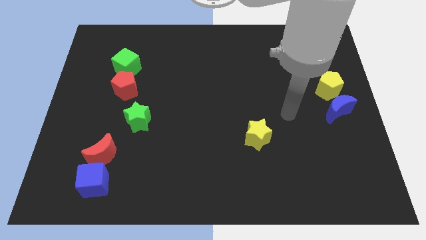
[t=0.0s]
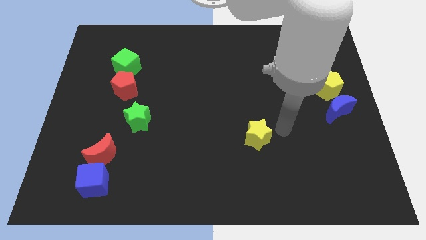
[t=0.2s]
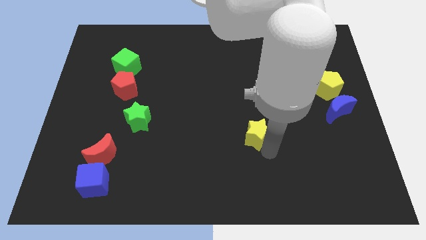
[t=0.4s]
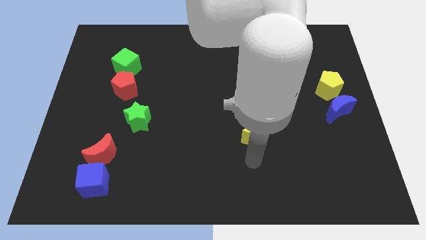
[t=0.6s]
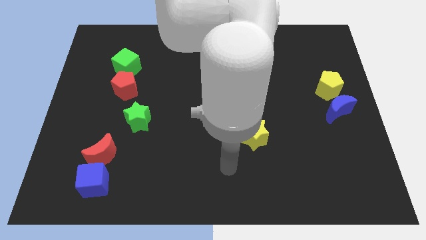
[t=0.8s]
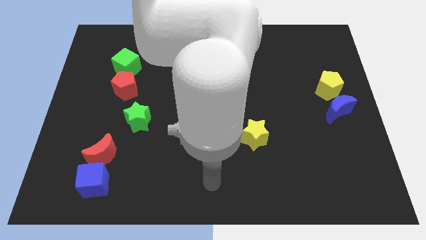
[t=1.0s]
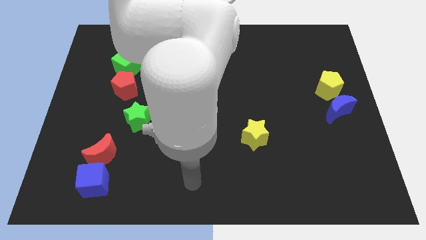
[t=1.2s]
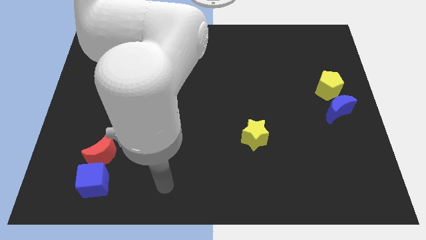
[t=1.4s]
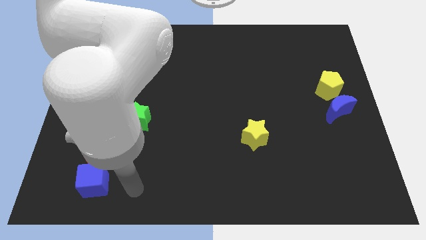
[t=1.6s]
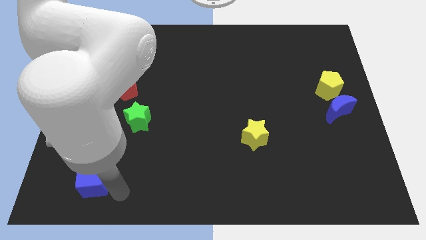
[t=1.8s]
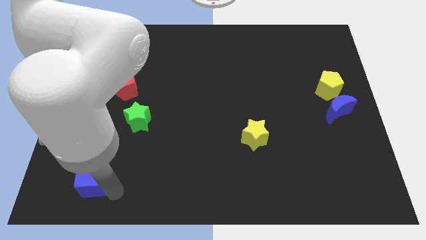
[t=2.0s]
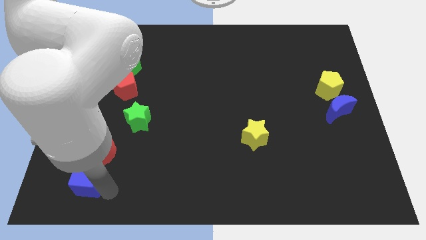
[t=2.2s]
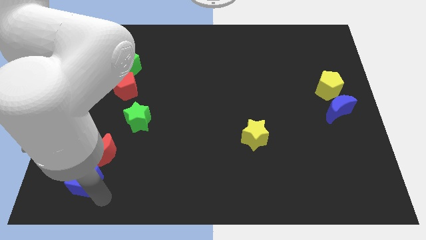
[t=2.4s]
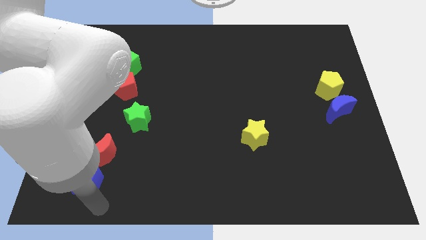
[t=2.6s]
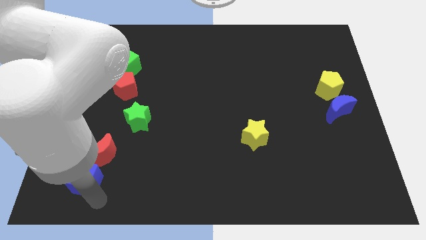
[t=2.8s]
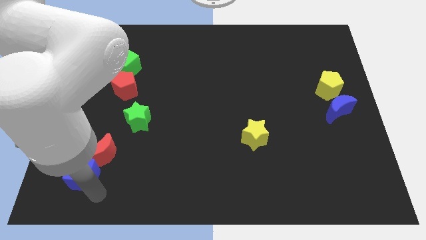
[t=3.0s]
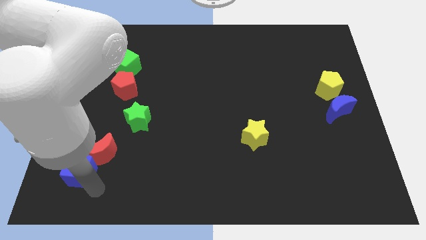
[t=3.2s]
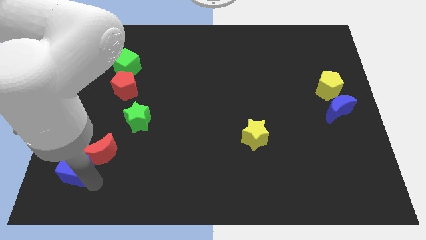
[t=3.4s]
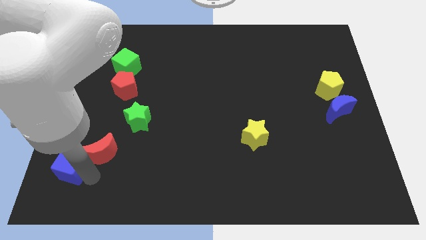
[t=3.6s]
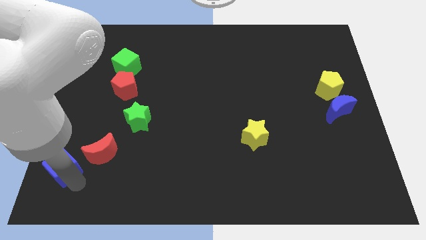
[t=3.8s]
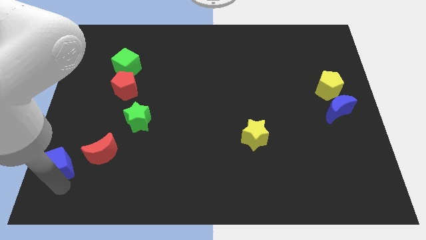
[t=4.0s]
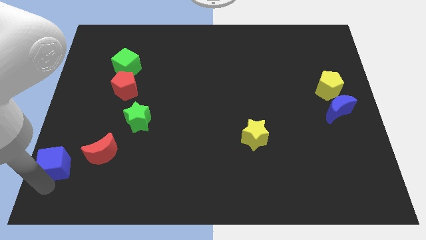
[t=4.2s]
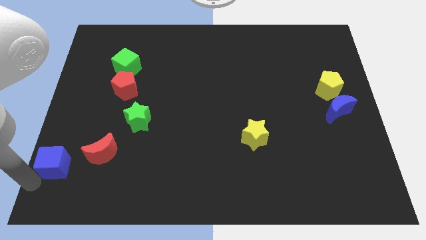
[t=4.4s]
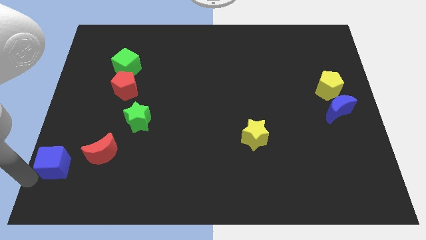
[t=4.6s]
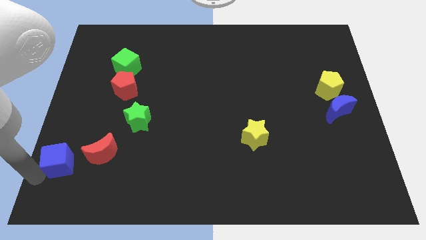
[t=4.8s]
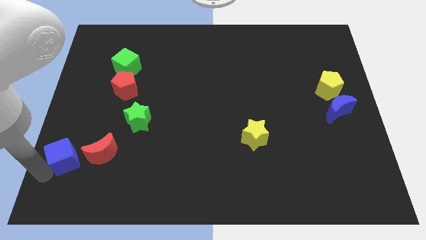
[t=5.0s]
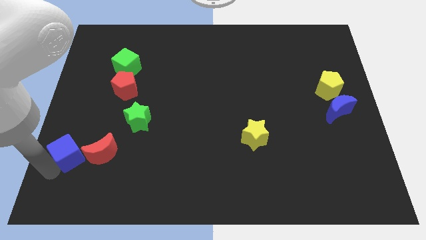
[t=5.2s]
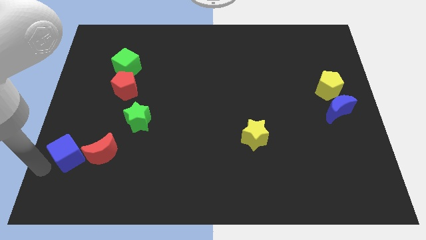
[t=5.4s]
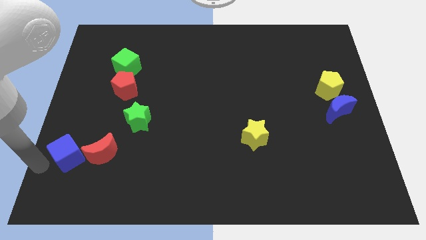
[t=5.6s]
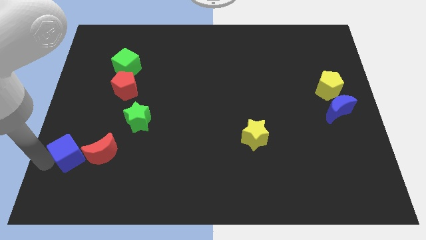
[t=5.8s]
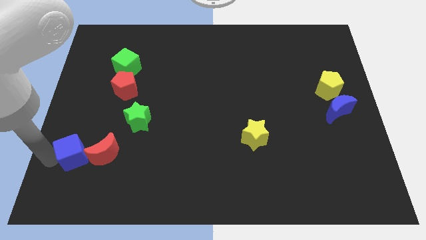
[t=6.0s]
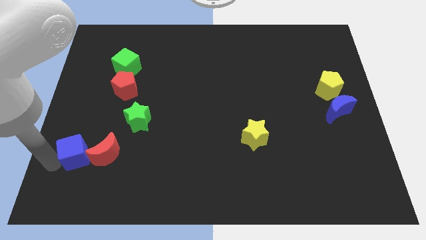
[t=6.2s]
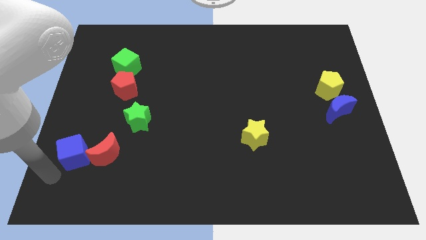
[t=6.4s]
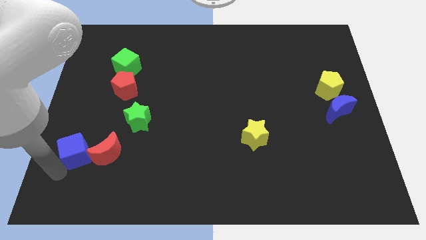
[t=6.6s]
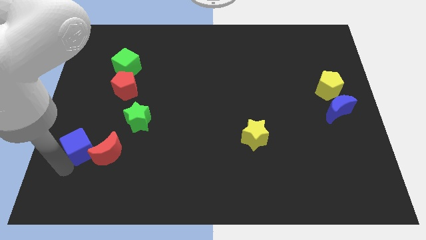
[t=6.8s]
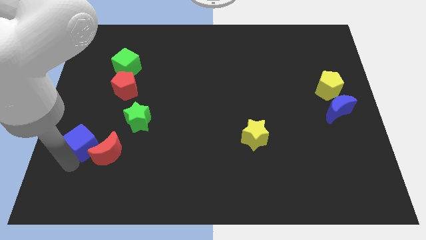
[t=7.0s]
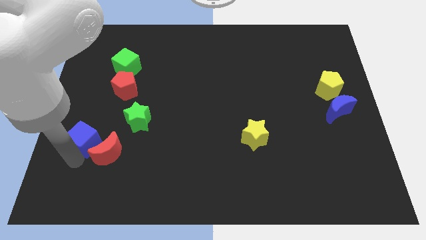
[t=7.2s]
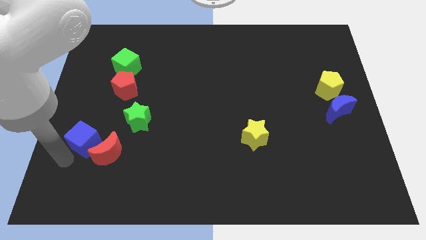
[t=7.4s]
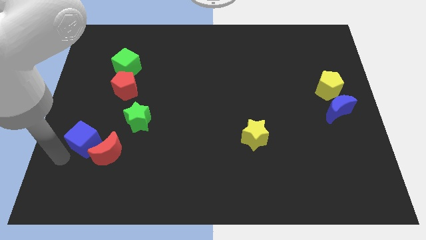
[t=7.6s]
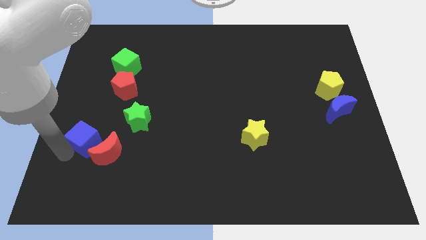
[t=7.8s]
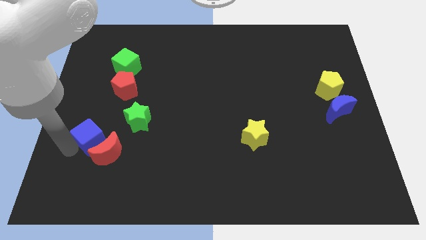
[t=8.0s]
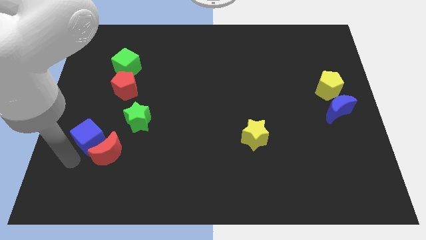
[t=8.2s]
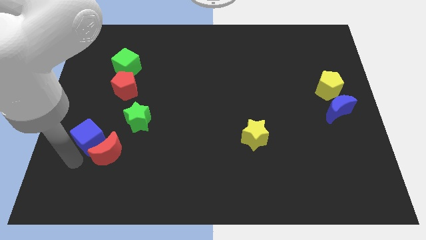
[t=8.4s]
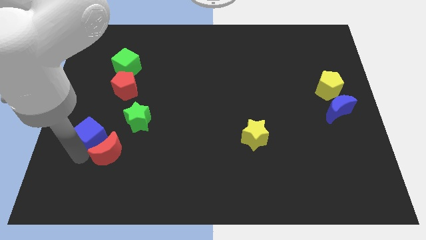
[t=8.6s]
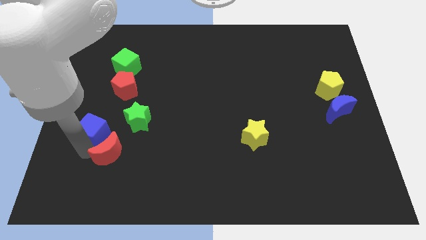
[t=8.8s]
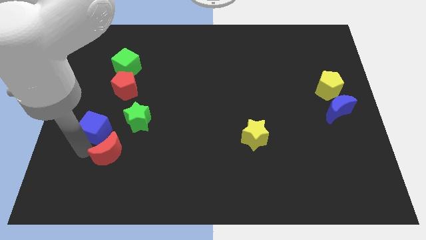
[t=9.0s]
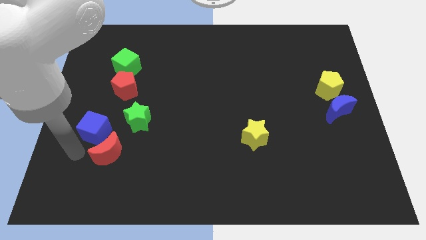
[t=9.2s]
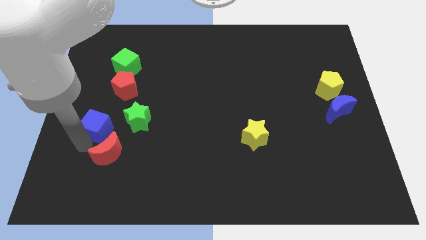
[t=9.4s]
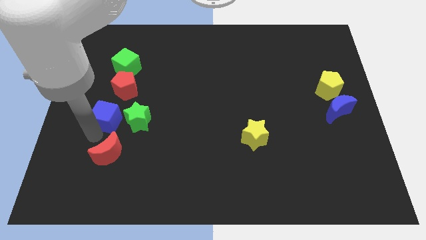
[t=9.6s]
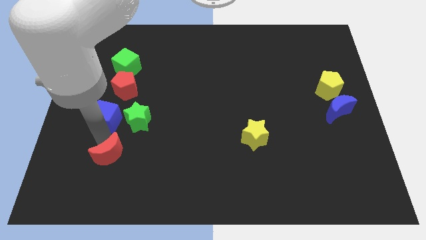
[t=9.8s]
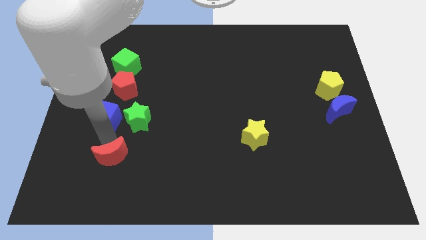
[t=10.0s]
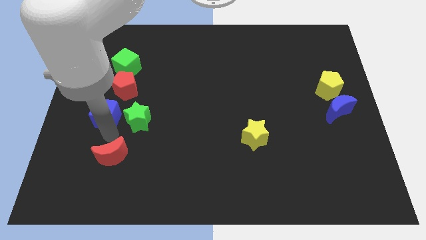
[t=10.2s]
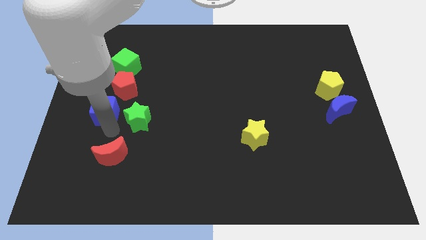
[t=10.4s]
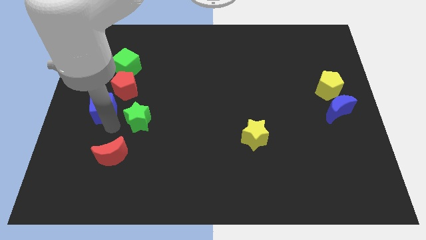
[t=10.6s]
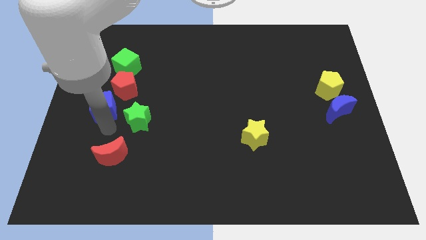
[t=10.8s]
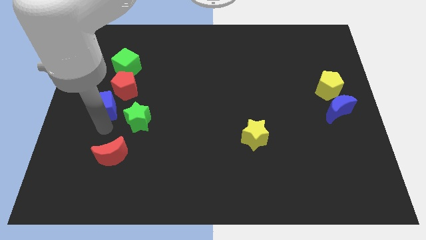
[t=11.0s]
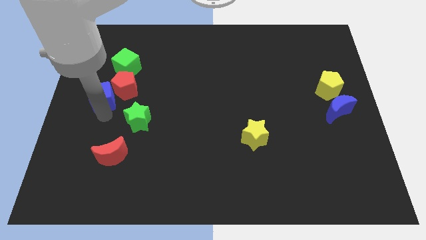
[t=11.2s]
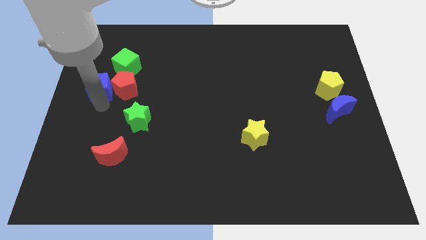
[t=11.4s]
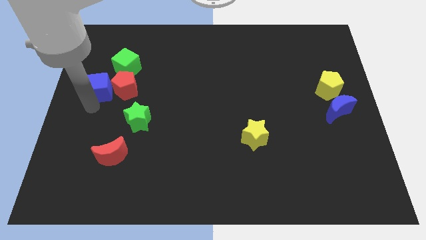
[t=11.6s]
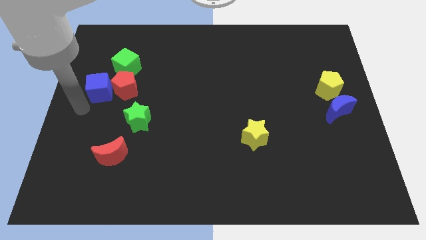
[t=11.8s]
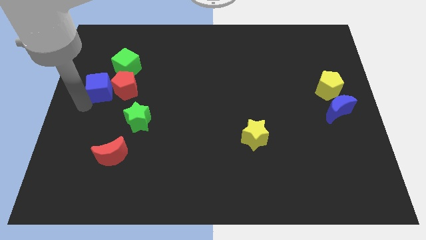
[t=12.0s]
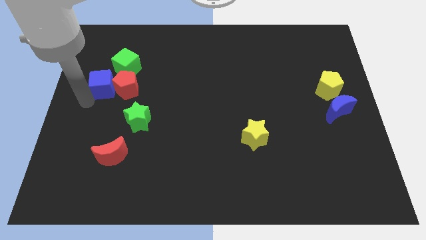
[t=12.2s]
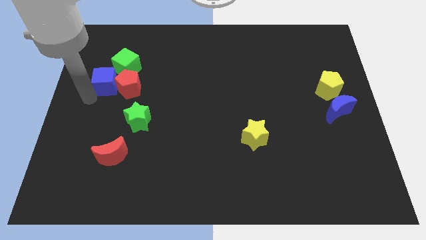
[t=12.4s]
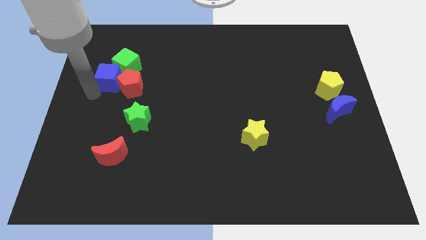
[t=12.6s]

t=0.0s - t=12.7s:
push the blue cube to the green cube

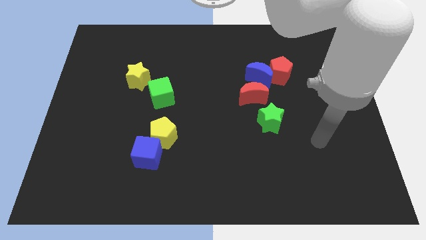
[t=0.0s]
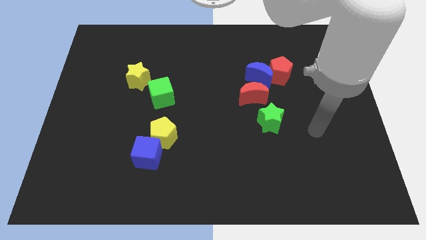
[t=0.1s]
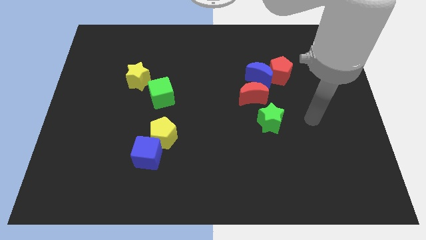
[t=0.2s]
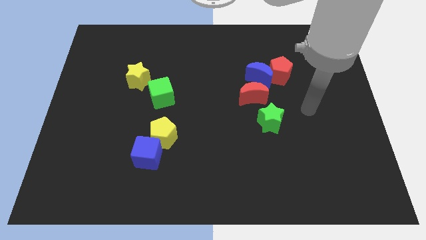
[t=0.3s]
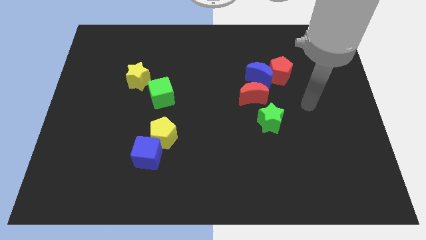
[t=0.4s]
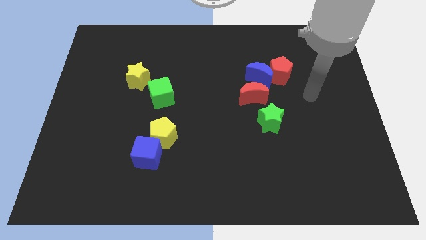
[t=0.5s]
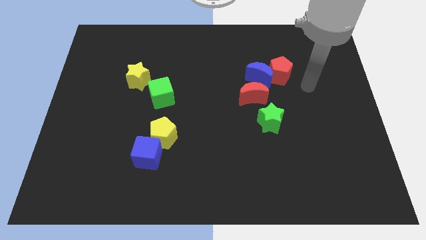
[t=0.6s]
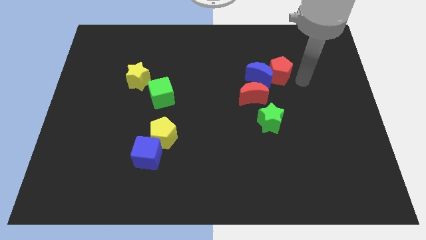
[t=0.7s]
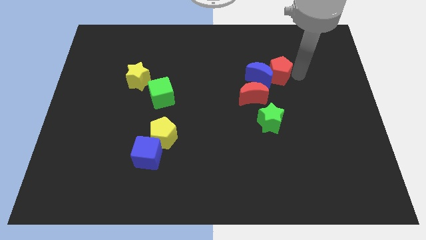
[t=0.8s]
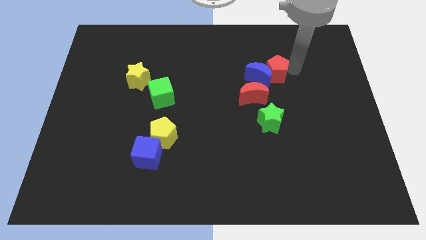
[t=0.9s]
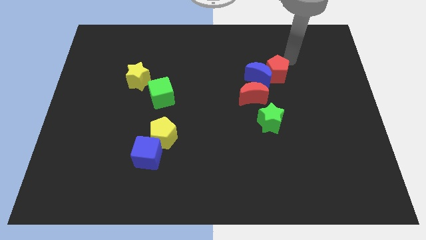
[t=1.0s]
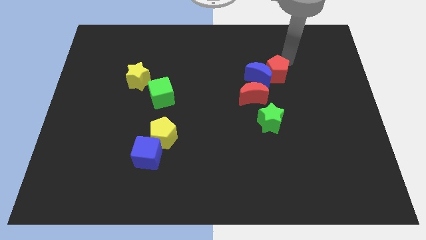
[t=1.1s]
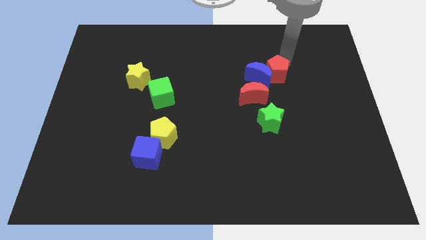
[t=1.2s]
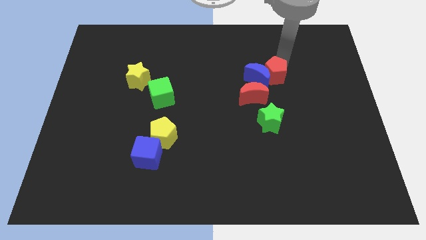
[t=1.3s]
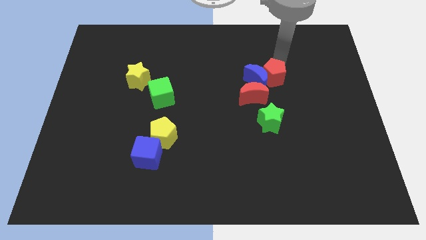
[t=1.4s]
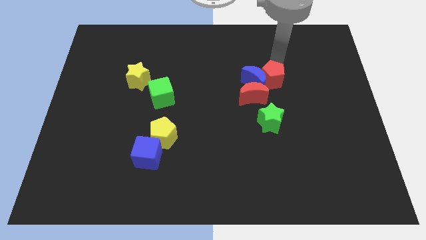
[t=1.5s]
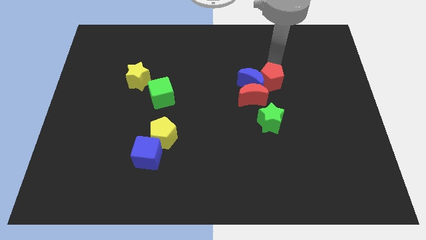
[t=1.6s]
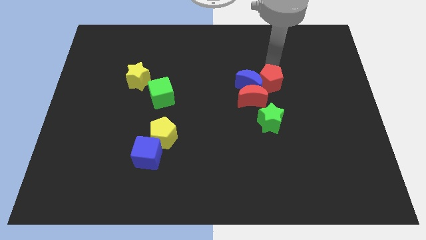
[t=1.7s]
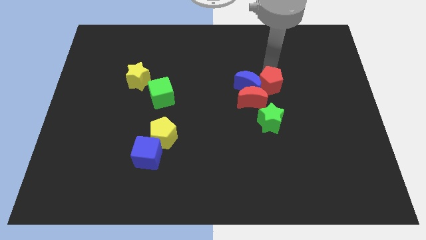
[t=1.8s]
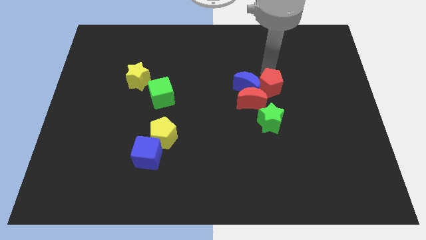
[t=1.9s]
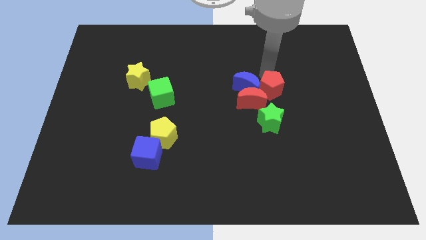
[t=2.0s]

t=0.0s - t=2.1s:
push the red pentagon next to the red moon
